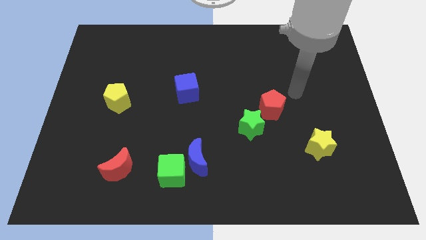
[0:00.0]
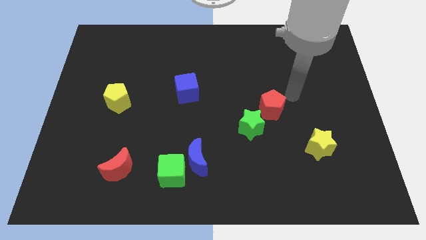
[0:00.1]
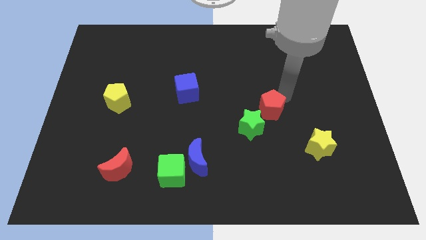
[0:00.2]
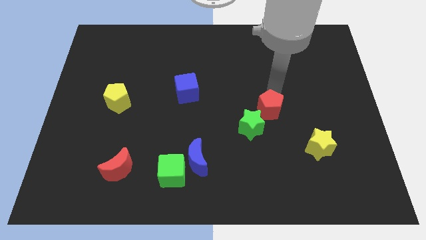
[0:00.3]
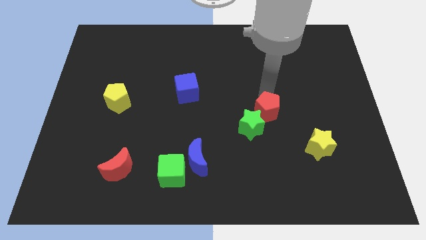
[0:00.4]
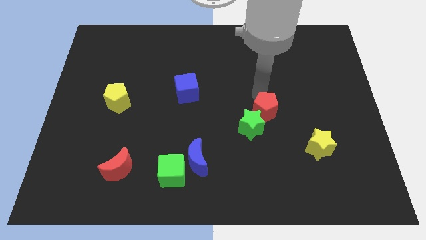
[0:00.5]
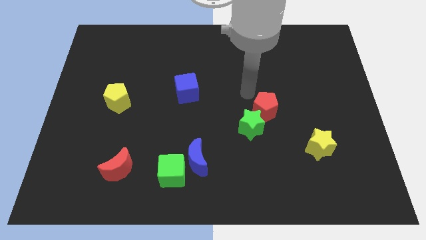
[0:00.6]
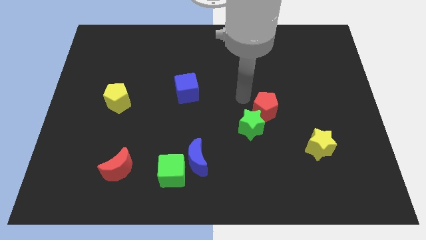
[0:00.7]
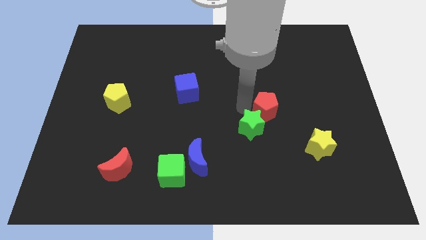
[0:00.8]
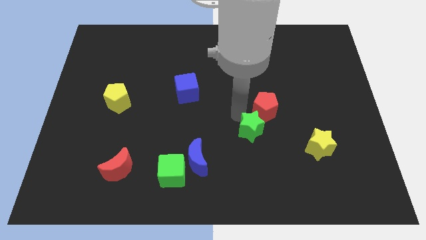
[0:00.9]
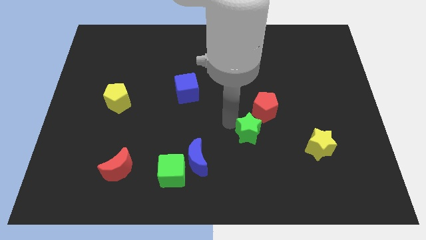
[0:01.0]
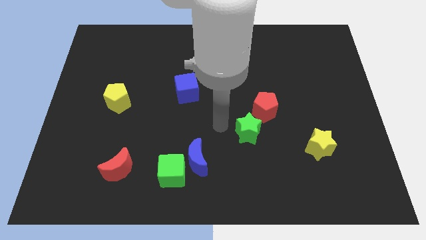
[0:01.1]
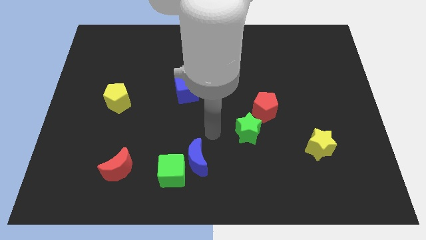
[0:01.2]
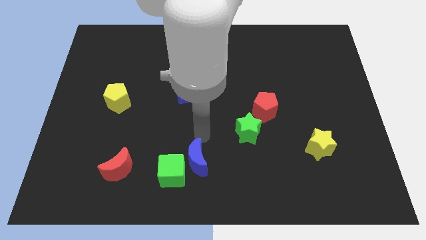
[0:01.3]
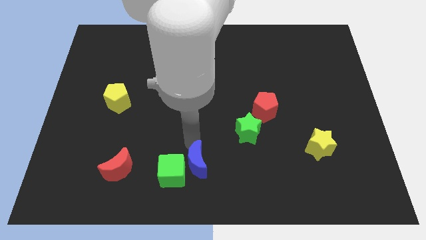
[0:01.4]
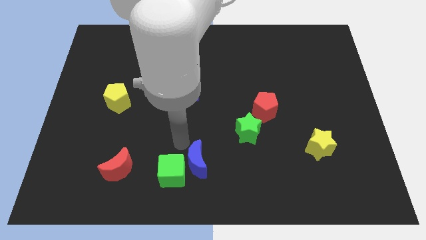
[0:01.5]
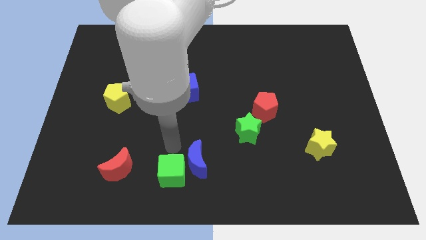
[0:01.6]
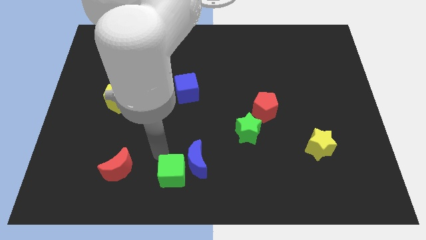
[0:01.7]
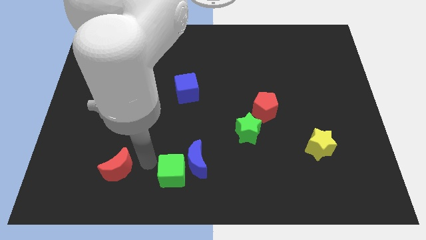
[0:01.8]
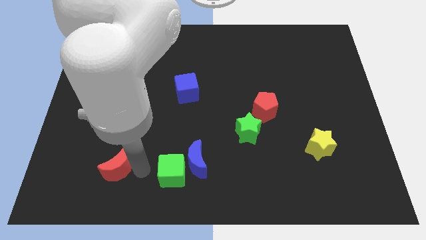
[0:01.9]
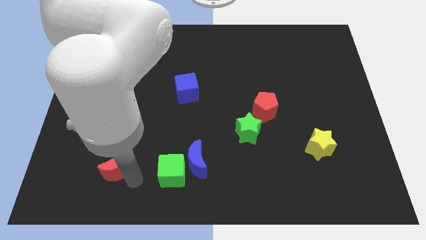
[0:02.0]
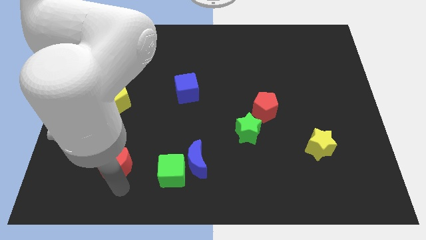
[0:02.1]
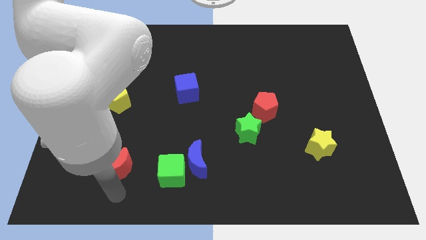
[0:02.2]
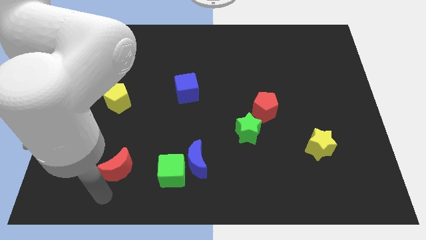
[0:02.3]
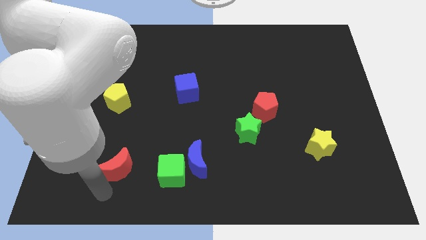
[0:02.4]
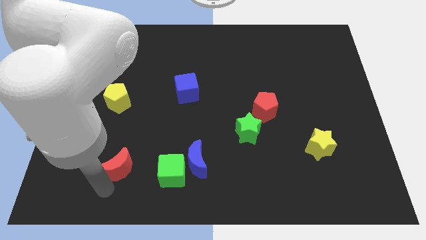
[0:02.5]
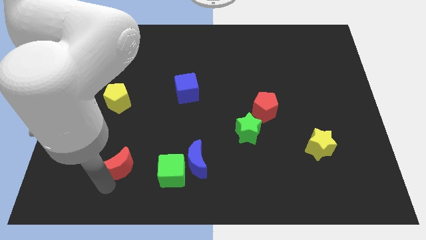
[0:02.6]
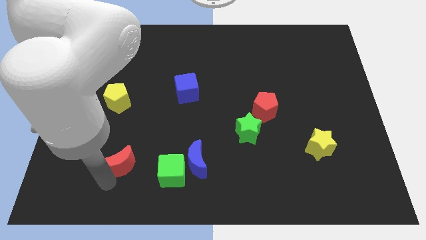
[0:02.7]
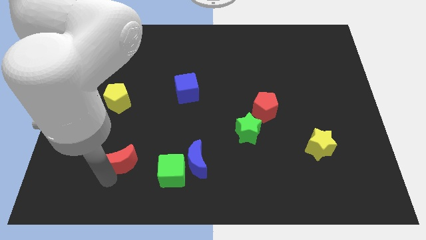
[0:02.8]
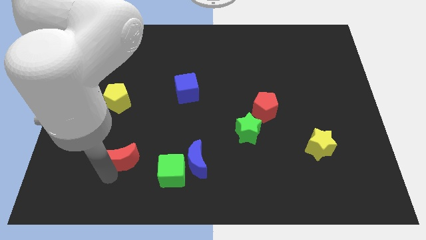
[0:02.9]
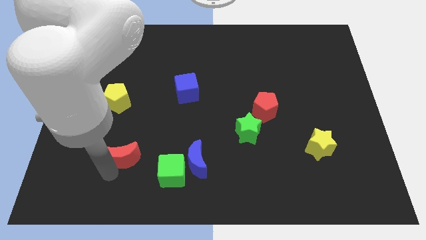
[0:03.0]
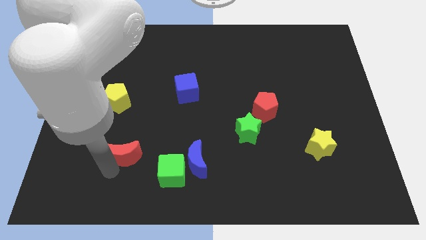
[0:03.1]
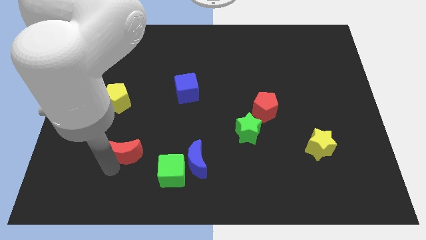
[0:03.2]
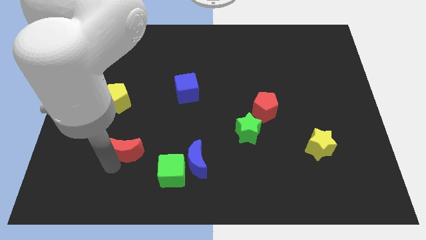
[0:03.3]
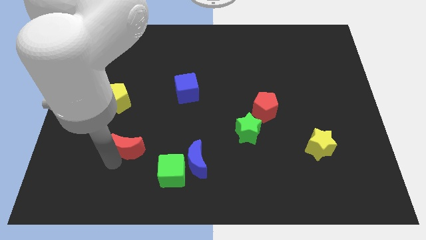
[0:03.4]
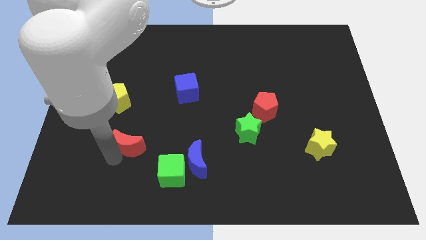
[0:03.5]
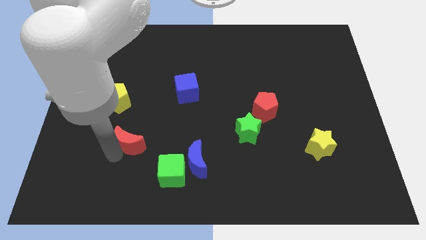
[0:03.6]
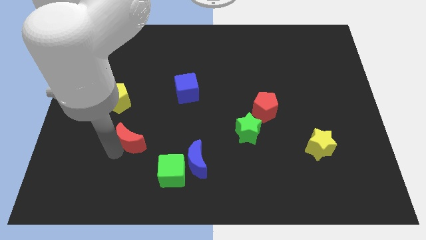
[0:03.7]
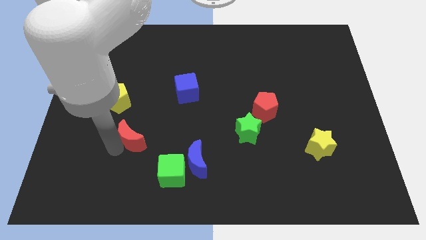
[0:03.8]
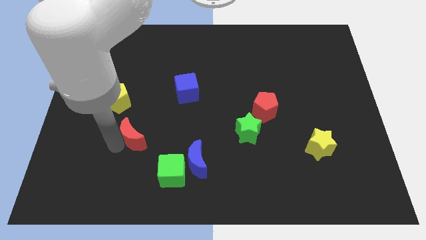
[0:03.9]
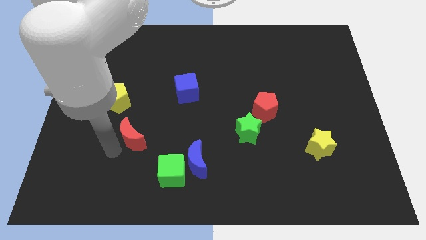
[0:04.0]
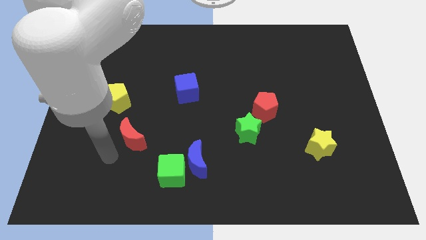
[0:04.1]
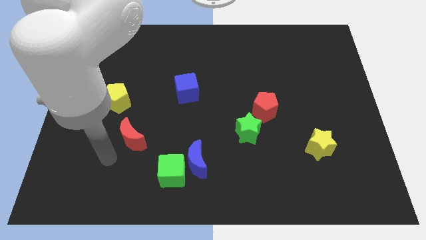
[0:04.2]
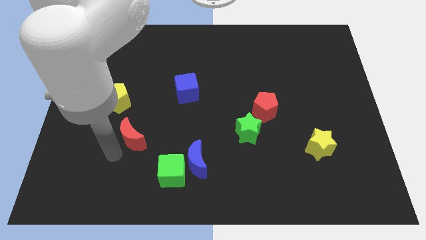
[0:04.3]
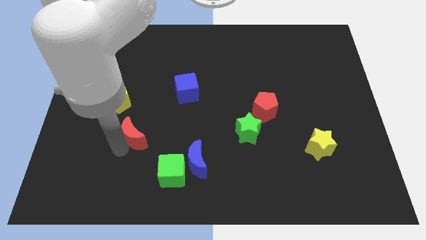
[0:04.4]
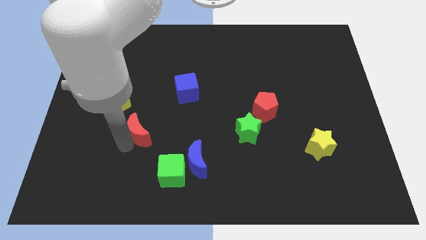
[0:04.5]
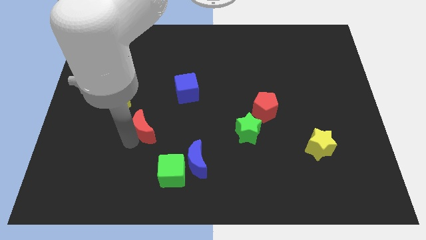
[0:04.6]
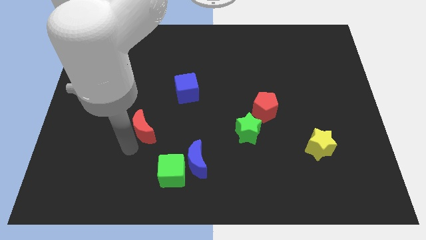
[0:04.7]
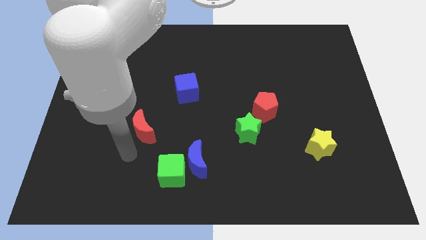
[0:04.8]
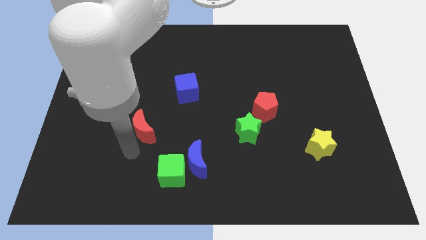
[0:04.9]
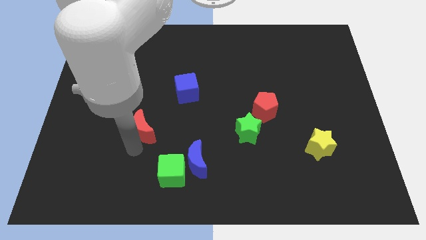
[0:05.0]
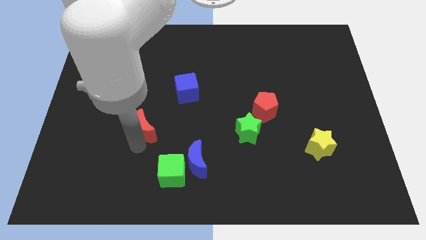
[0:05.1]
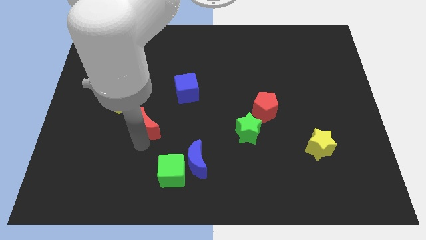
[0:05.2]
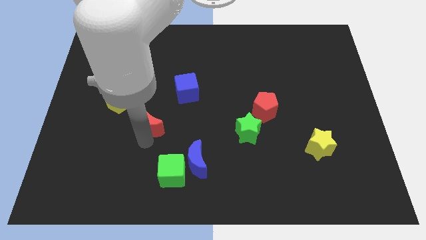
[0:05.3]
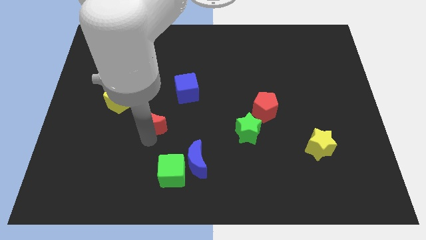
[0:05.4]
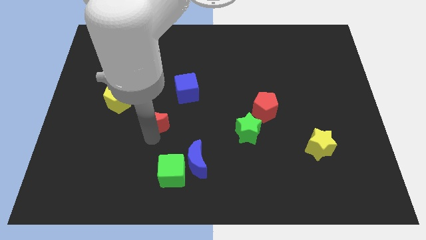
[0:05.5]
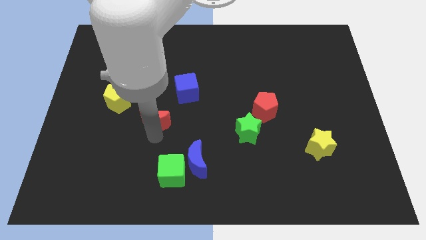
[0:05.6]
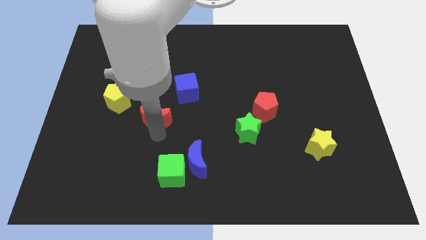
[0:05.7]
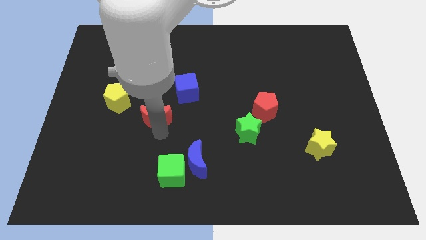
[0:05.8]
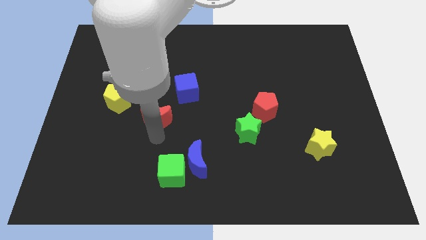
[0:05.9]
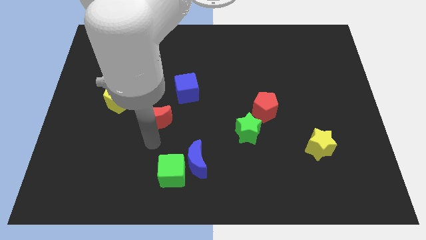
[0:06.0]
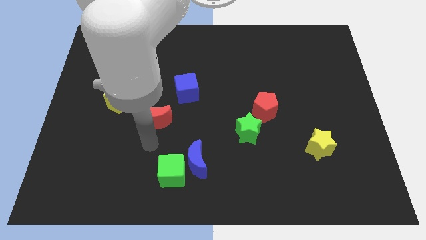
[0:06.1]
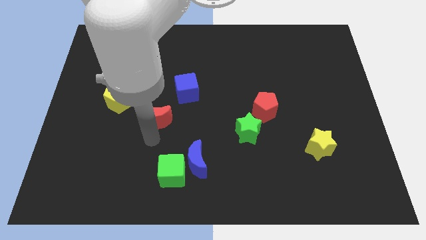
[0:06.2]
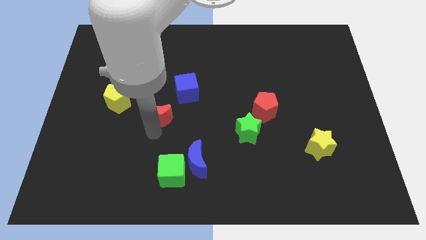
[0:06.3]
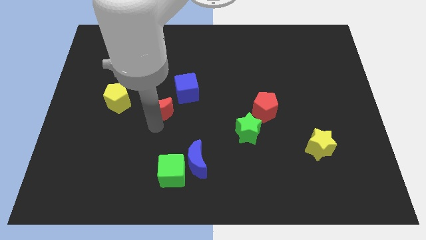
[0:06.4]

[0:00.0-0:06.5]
slide the red moon to the right of the yellow pentagon
